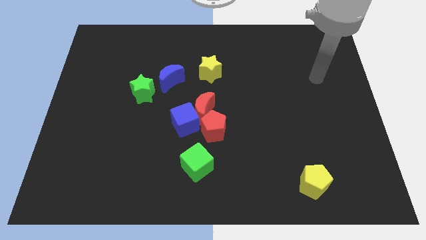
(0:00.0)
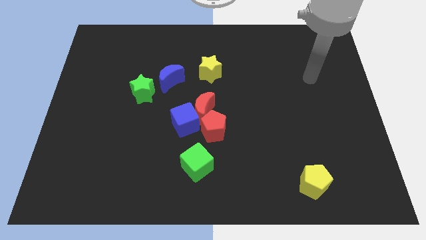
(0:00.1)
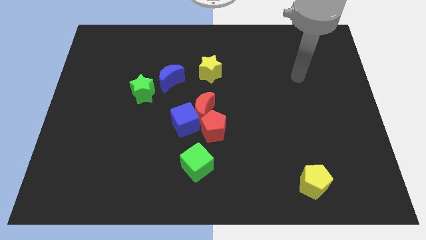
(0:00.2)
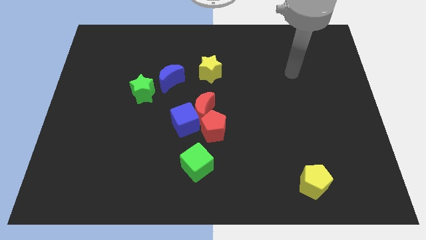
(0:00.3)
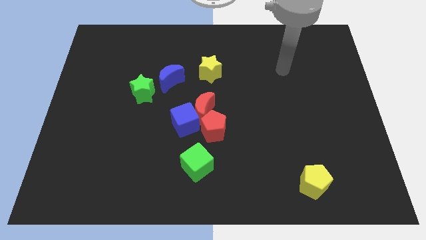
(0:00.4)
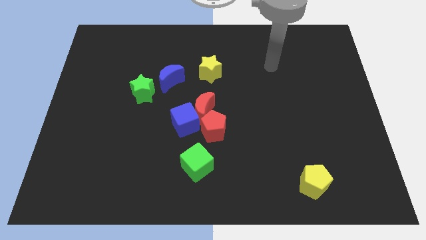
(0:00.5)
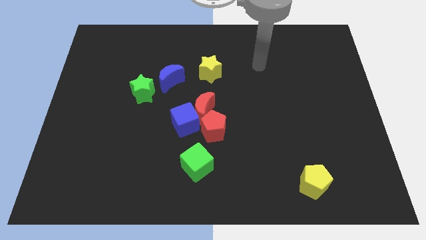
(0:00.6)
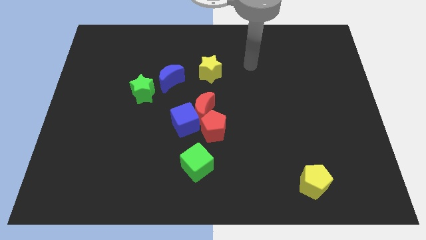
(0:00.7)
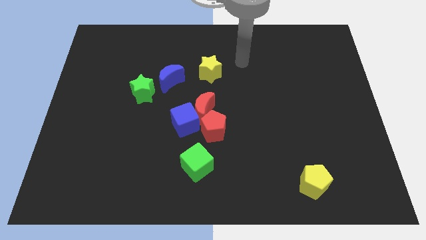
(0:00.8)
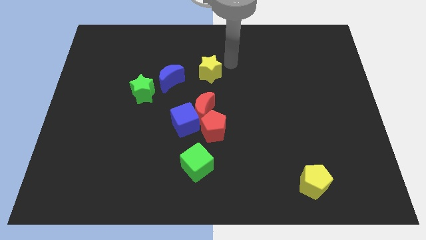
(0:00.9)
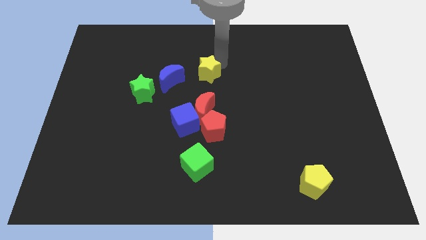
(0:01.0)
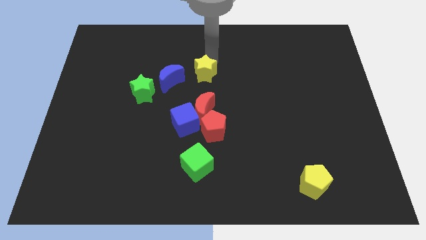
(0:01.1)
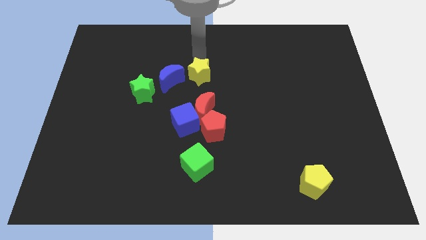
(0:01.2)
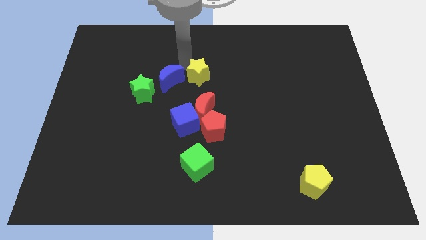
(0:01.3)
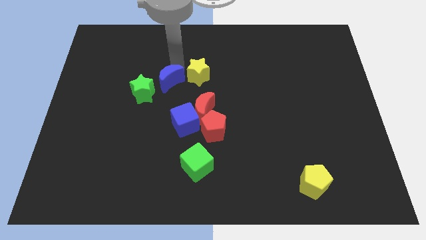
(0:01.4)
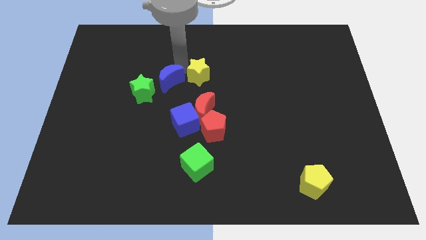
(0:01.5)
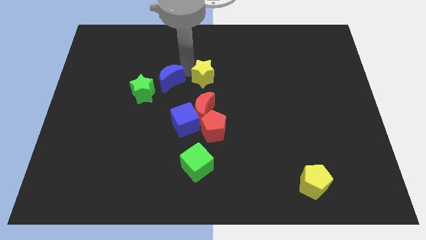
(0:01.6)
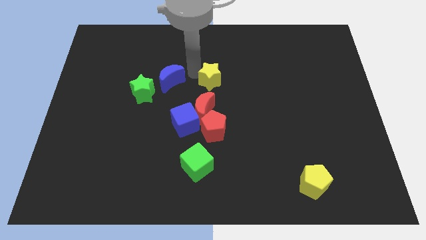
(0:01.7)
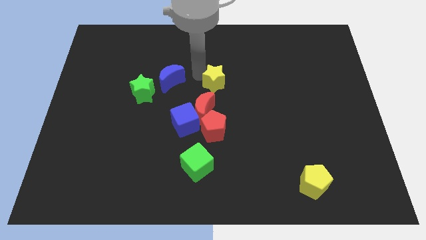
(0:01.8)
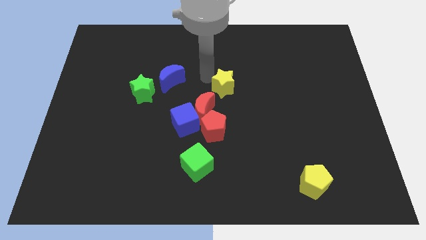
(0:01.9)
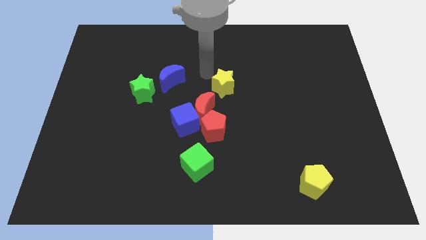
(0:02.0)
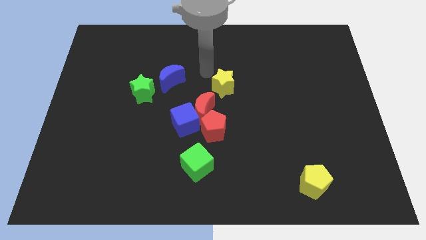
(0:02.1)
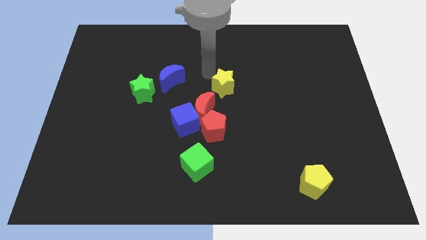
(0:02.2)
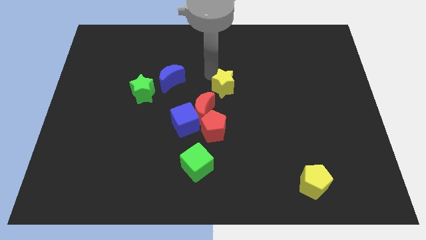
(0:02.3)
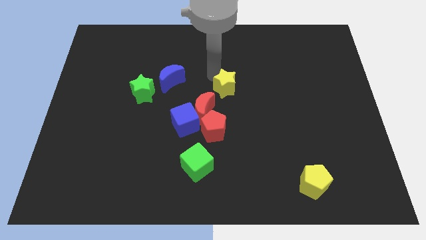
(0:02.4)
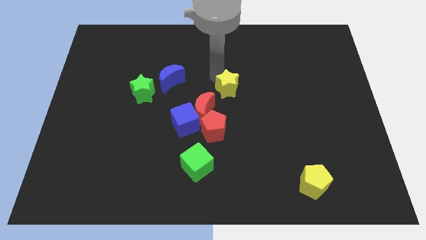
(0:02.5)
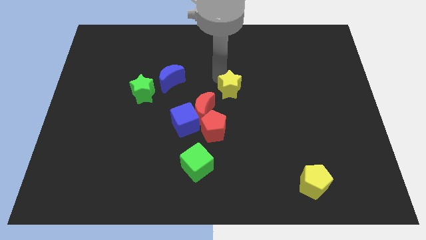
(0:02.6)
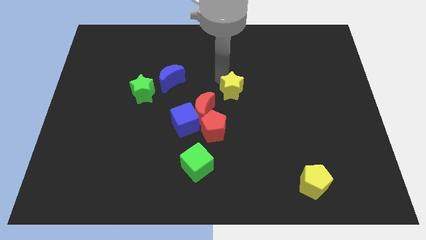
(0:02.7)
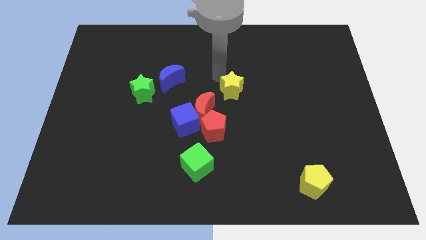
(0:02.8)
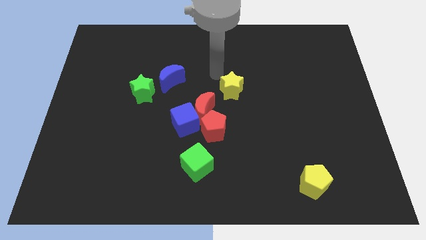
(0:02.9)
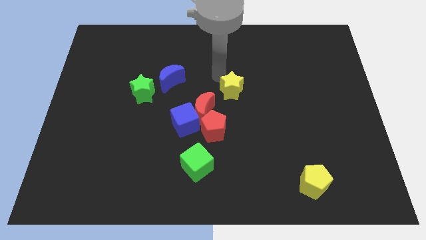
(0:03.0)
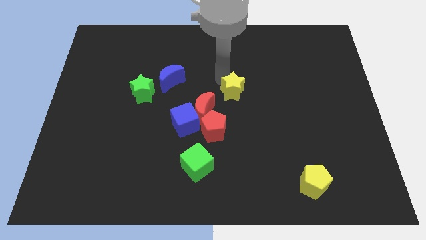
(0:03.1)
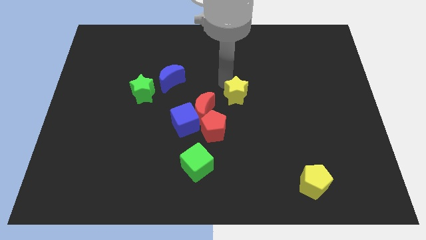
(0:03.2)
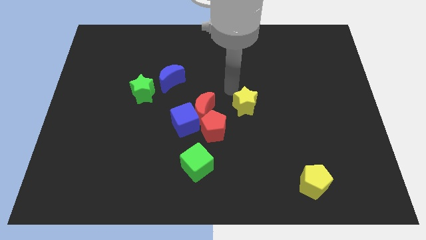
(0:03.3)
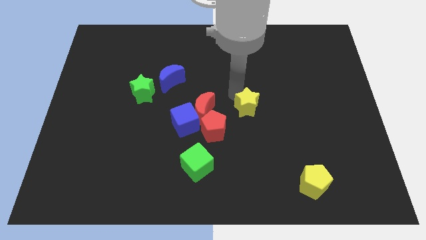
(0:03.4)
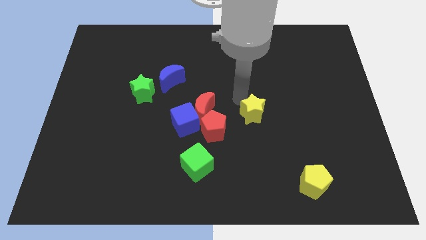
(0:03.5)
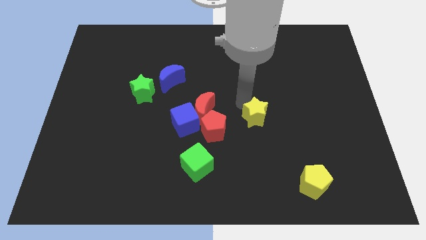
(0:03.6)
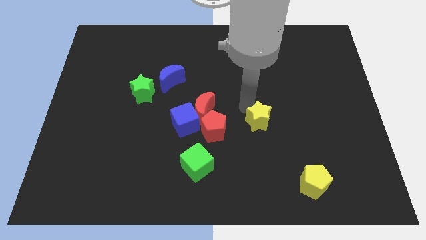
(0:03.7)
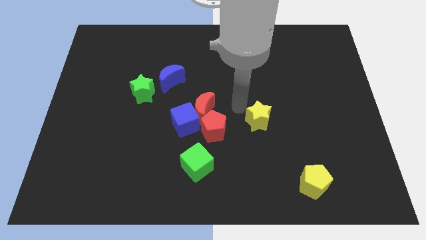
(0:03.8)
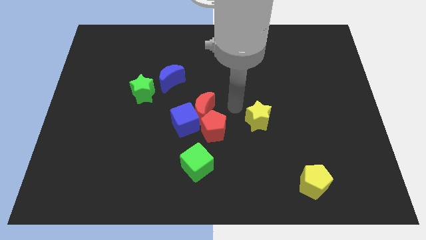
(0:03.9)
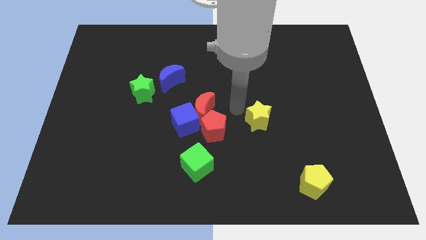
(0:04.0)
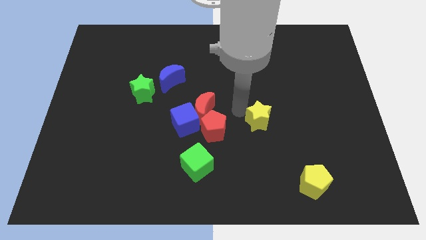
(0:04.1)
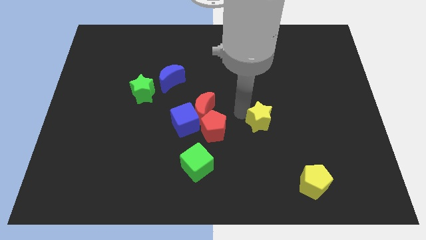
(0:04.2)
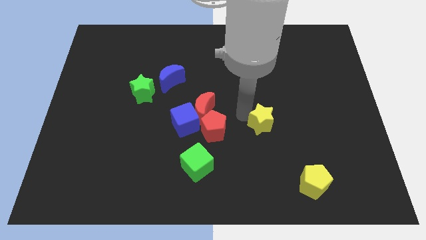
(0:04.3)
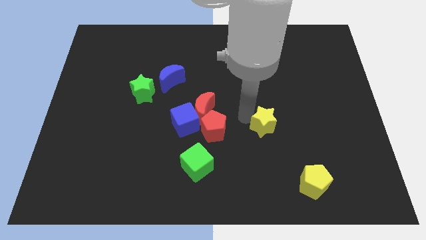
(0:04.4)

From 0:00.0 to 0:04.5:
move the yellow star diagonally down and to the right

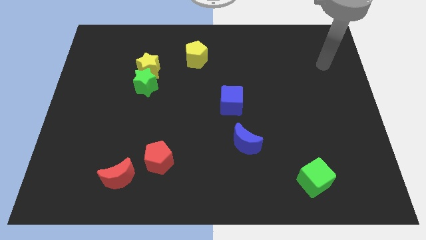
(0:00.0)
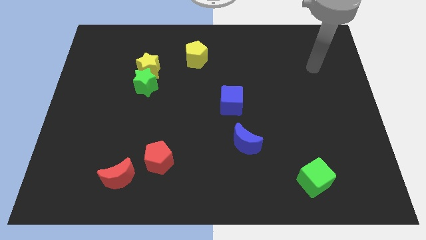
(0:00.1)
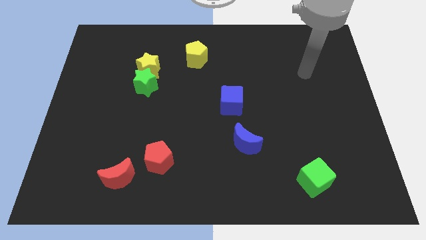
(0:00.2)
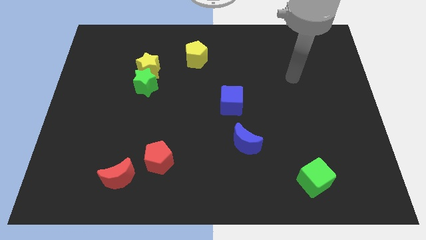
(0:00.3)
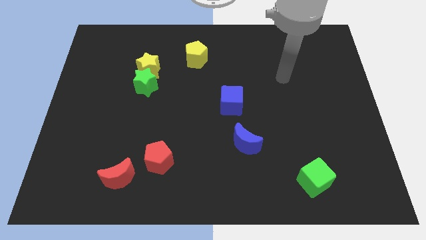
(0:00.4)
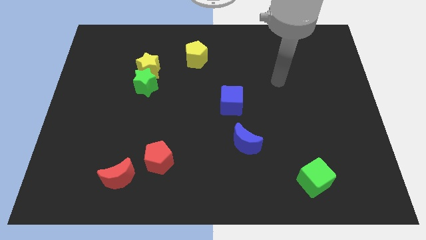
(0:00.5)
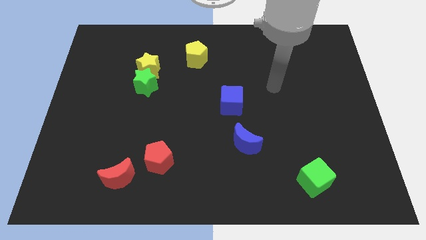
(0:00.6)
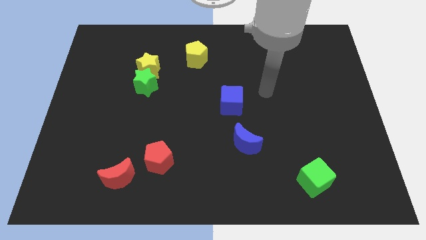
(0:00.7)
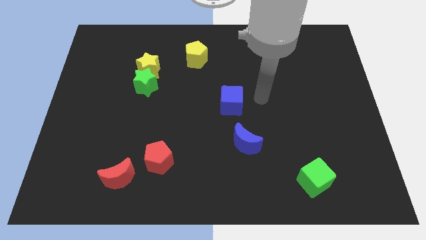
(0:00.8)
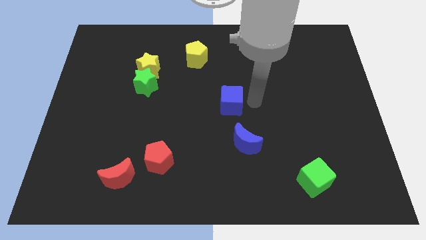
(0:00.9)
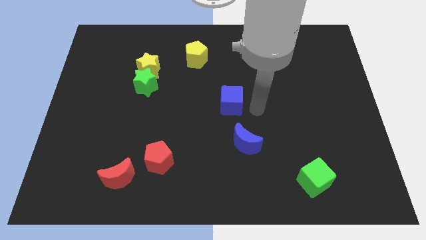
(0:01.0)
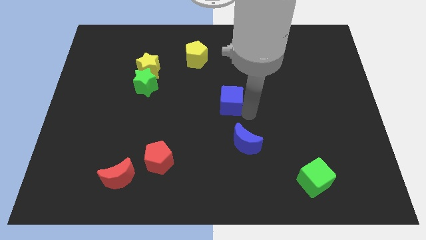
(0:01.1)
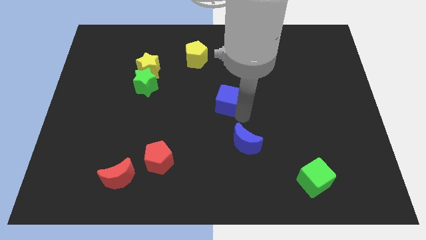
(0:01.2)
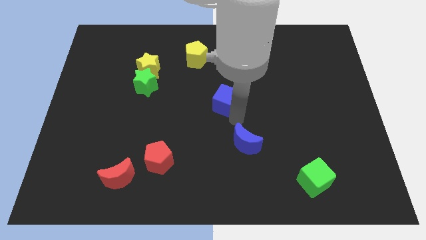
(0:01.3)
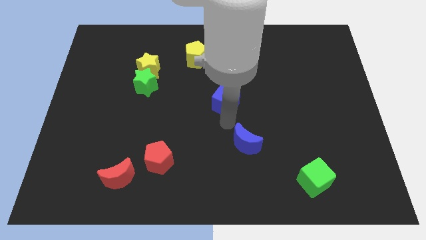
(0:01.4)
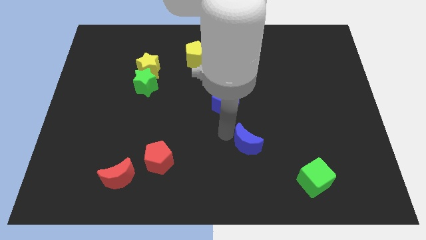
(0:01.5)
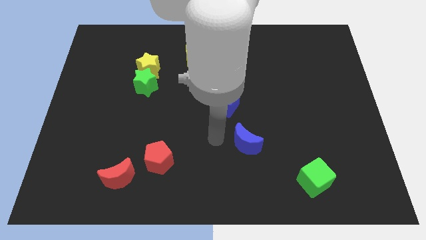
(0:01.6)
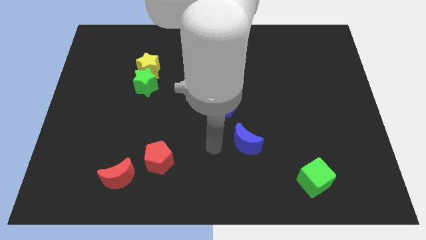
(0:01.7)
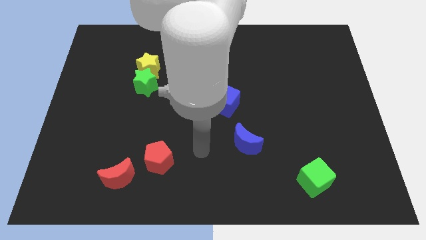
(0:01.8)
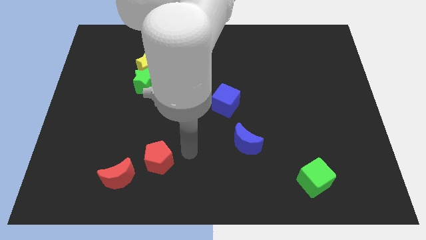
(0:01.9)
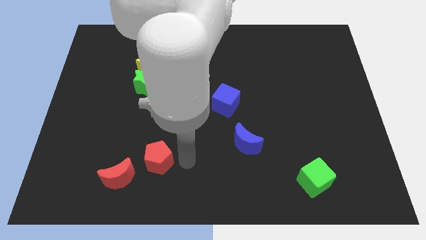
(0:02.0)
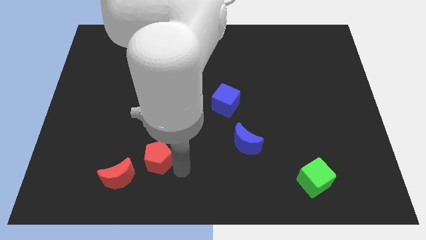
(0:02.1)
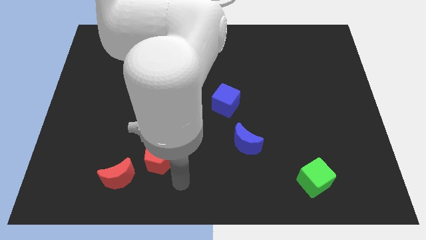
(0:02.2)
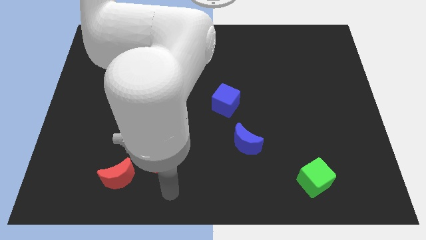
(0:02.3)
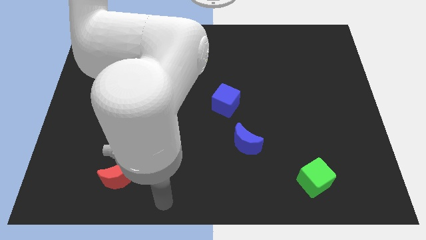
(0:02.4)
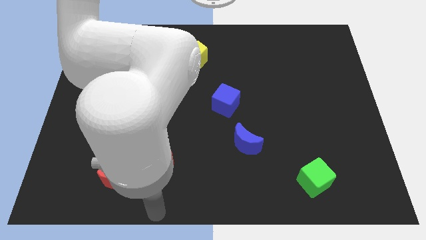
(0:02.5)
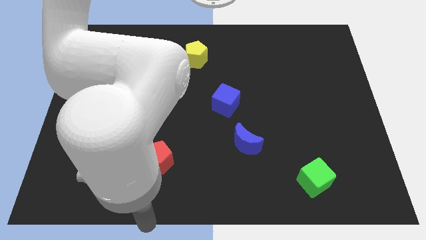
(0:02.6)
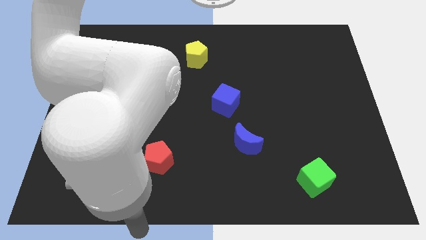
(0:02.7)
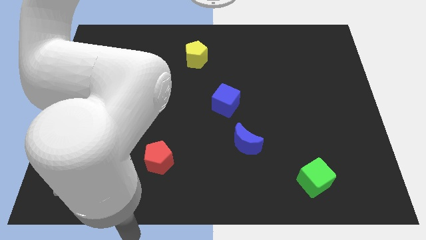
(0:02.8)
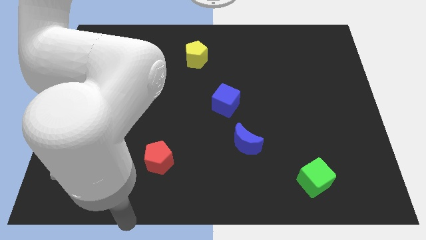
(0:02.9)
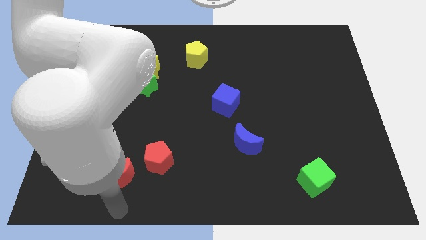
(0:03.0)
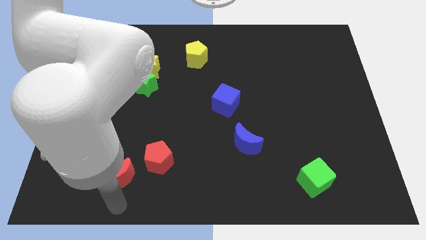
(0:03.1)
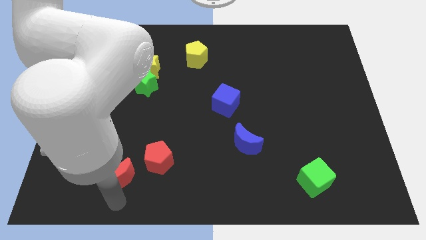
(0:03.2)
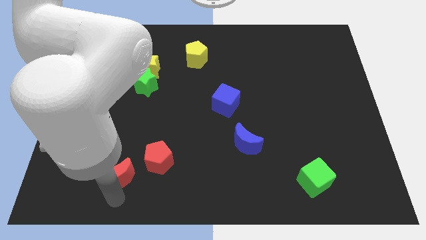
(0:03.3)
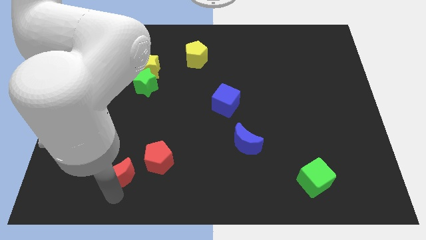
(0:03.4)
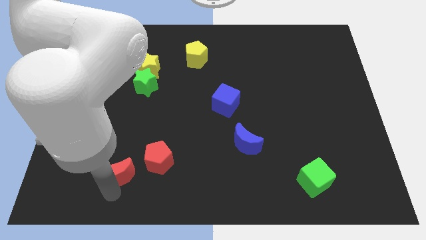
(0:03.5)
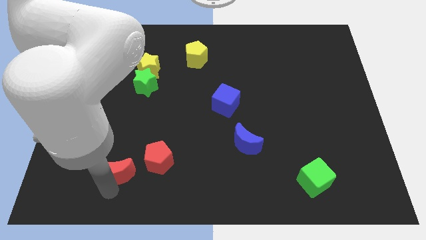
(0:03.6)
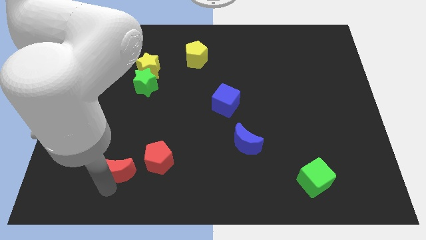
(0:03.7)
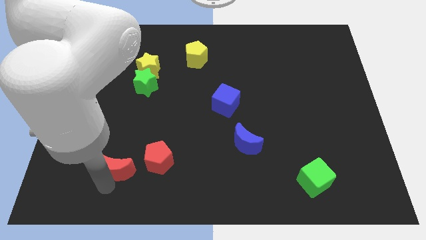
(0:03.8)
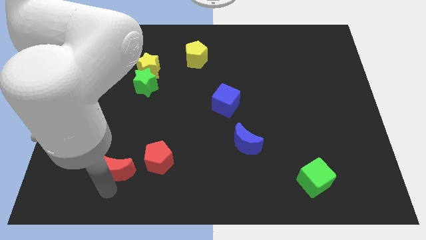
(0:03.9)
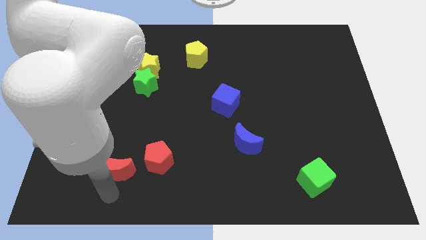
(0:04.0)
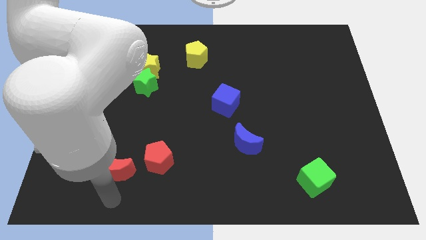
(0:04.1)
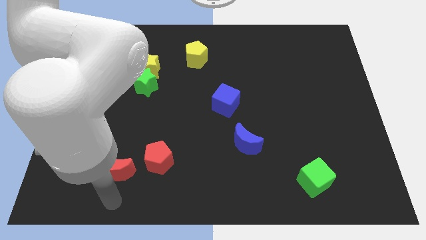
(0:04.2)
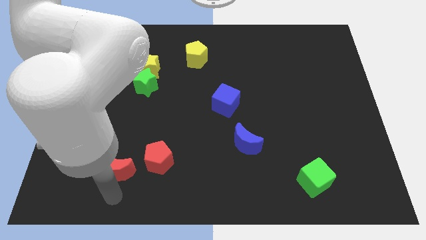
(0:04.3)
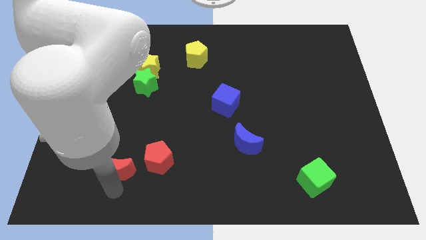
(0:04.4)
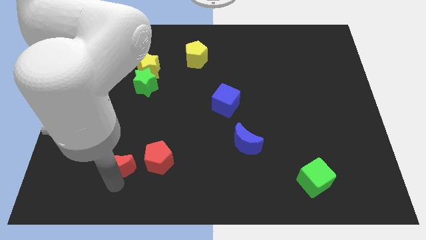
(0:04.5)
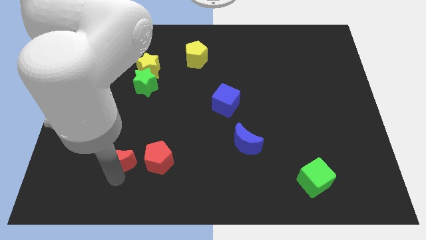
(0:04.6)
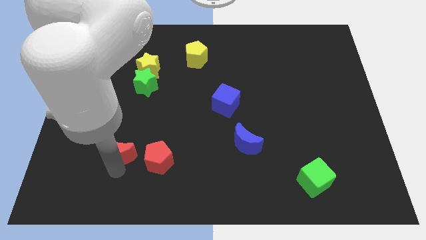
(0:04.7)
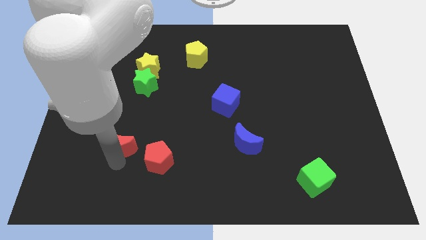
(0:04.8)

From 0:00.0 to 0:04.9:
move the red moon a little up
